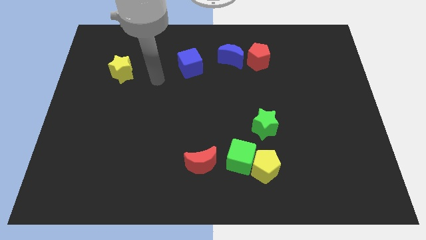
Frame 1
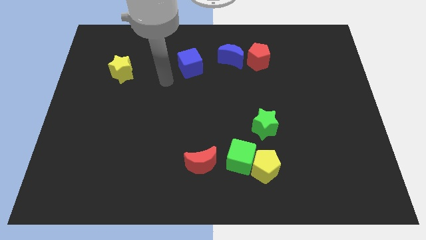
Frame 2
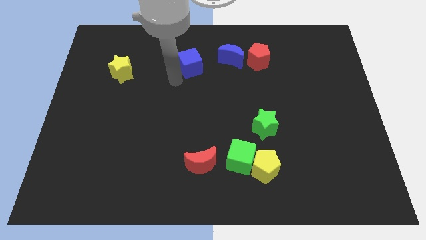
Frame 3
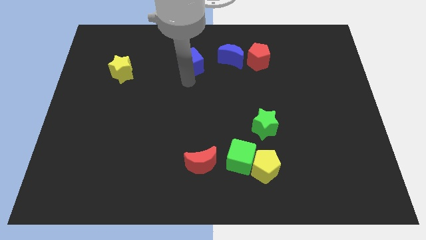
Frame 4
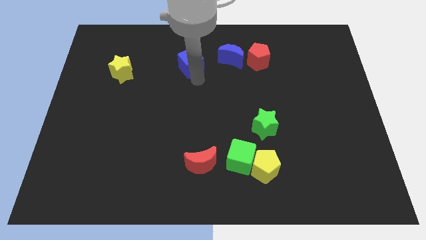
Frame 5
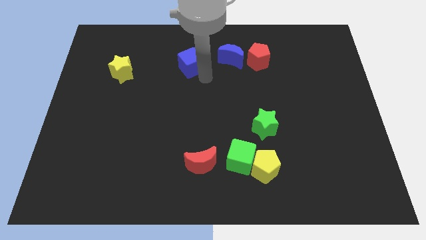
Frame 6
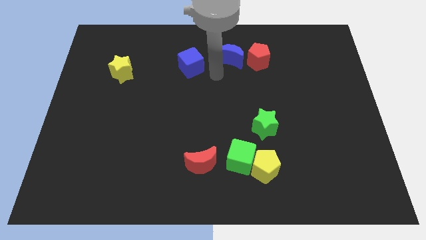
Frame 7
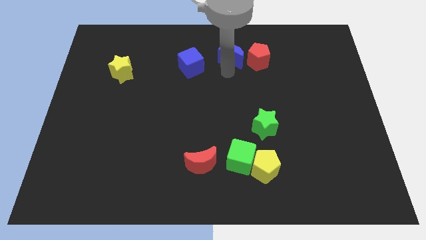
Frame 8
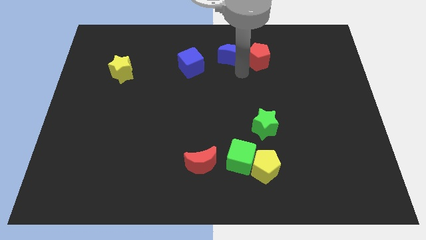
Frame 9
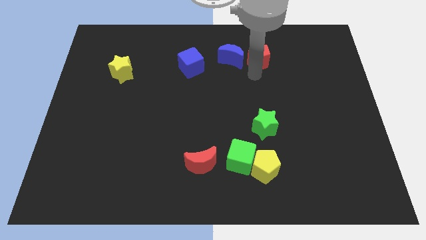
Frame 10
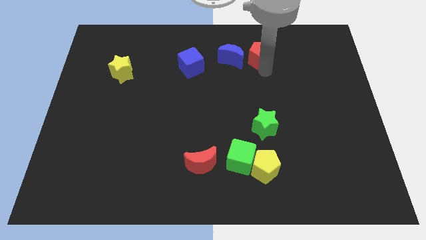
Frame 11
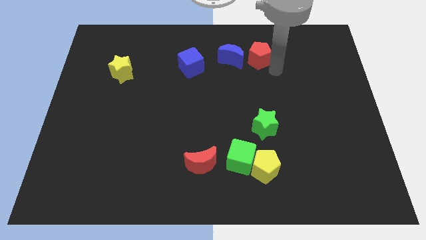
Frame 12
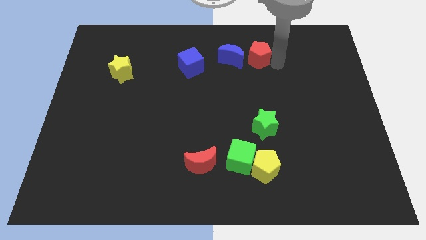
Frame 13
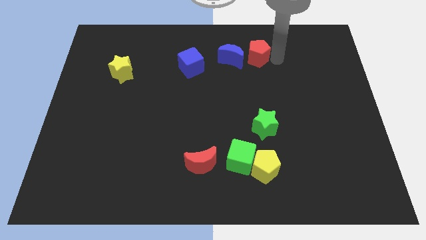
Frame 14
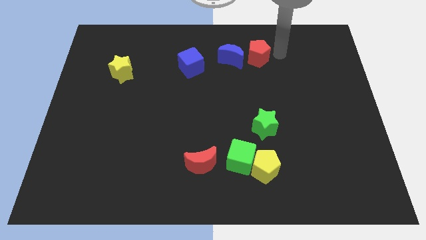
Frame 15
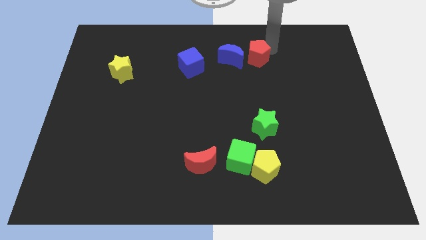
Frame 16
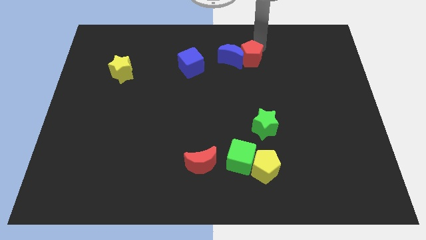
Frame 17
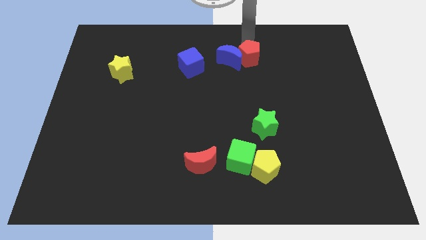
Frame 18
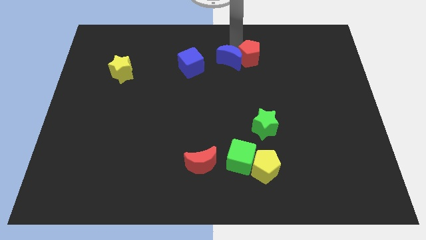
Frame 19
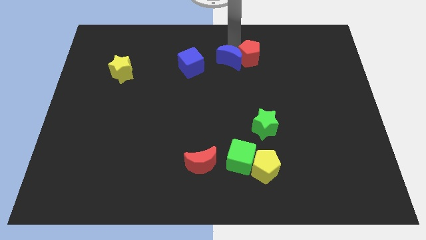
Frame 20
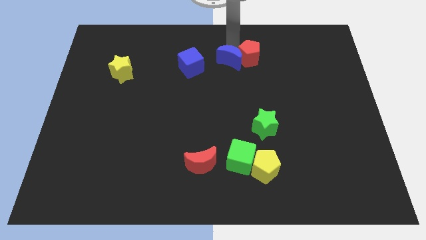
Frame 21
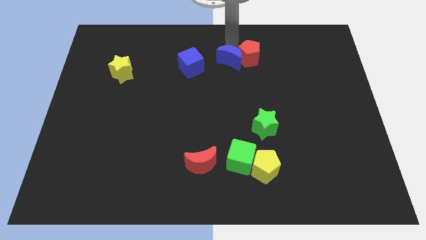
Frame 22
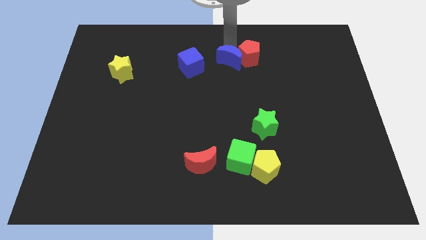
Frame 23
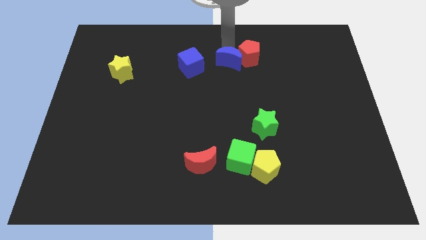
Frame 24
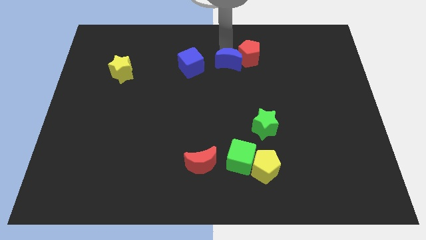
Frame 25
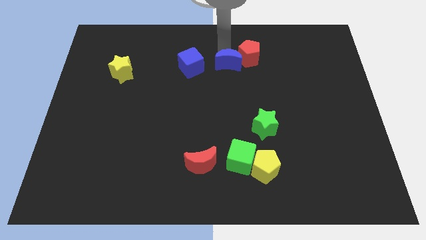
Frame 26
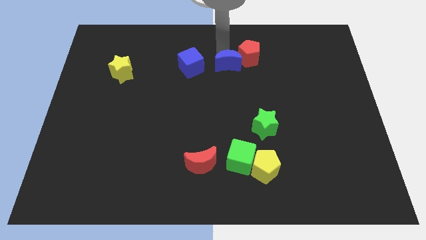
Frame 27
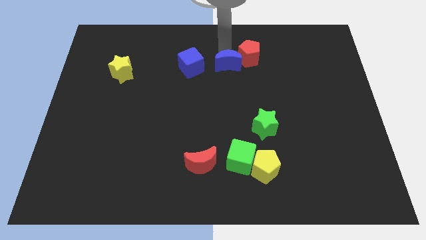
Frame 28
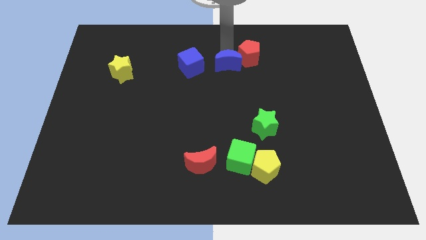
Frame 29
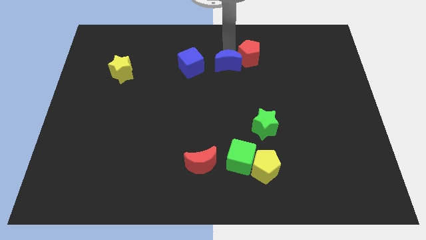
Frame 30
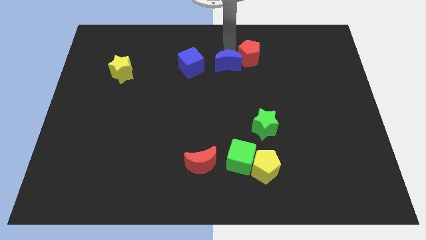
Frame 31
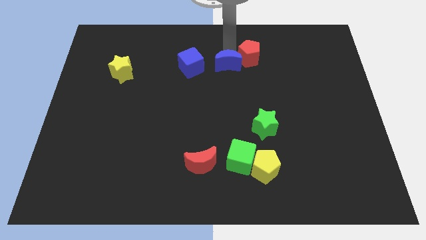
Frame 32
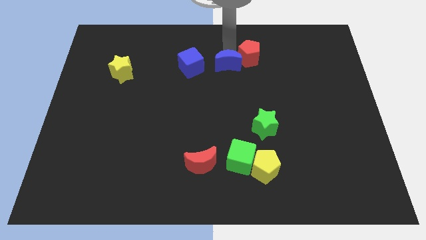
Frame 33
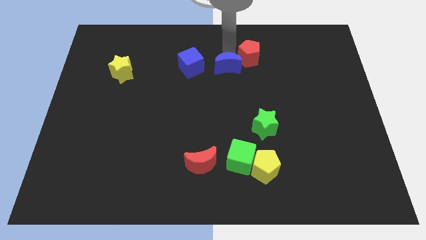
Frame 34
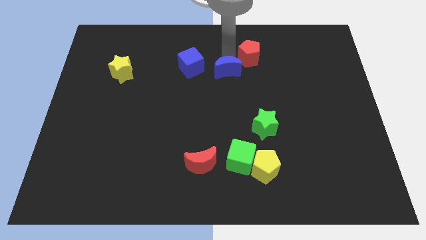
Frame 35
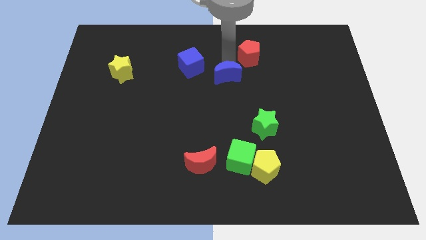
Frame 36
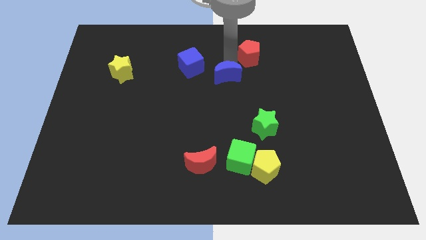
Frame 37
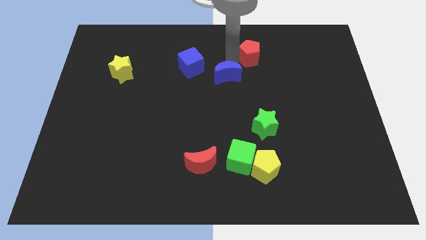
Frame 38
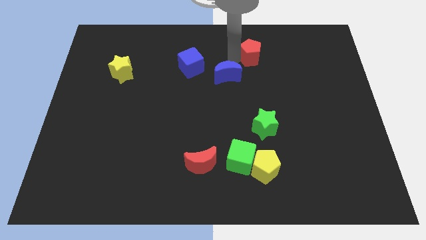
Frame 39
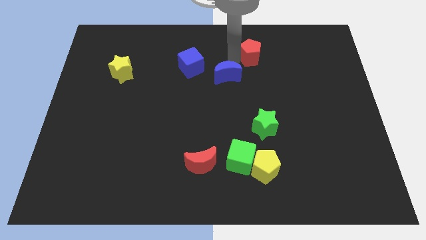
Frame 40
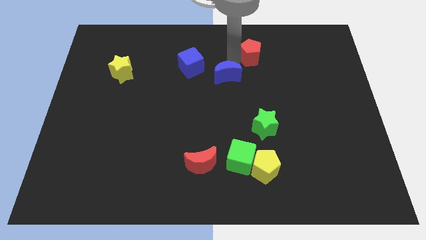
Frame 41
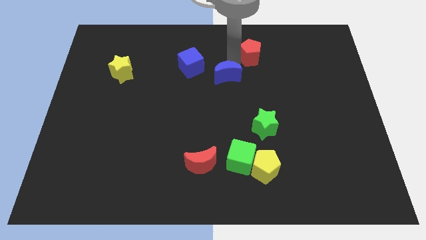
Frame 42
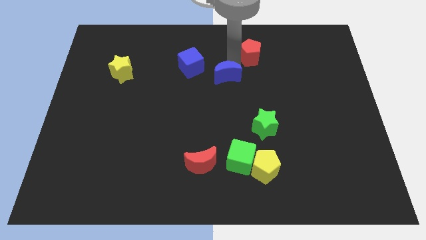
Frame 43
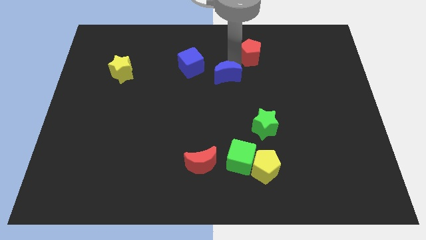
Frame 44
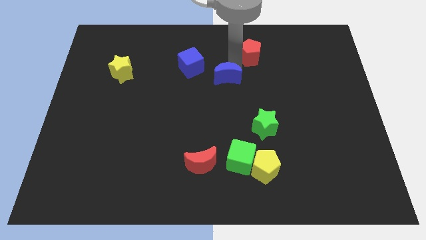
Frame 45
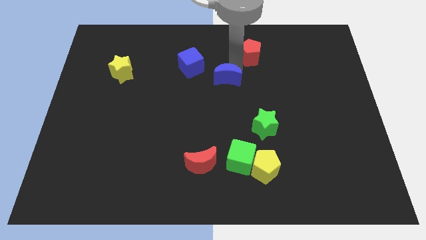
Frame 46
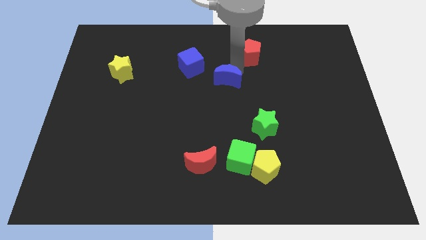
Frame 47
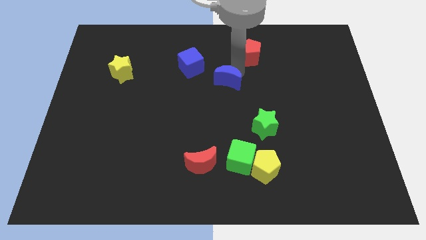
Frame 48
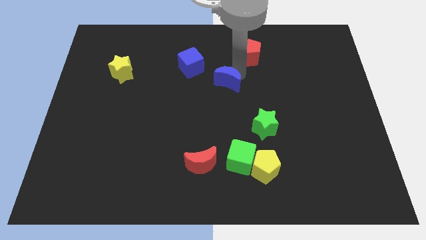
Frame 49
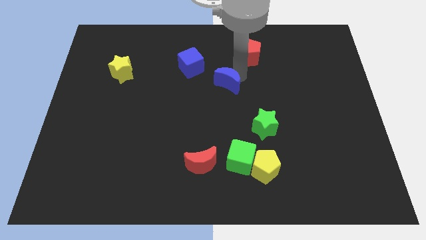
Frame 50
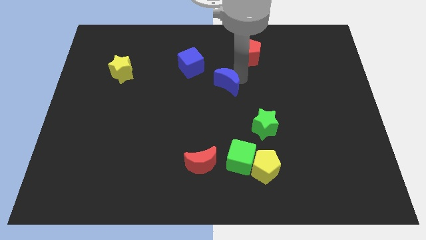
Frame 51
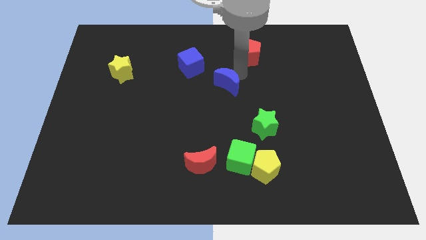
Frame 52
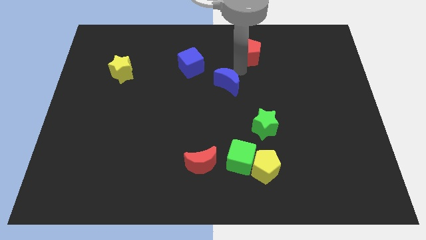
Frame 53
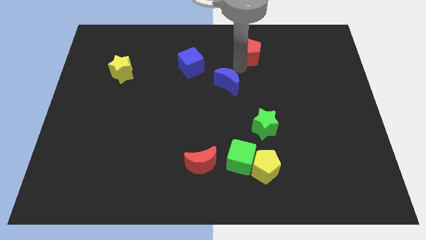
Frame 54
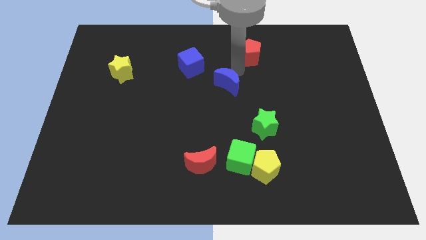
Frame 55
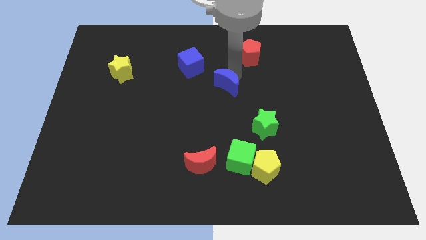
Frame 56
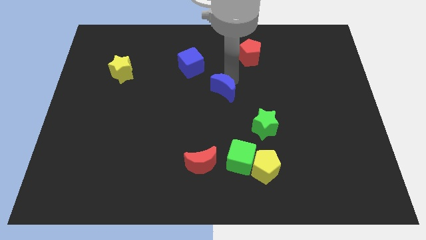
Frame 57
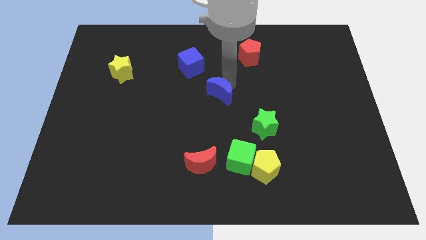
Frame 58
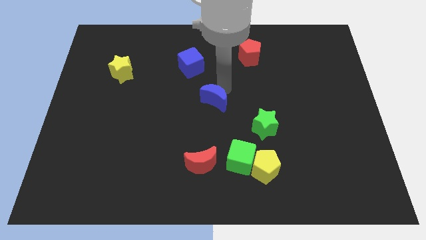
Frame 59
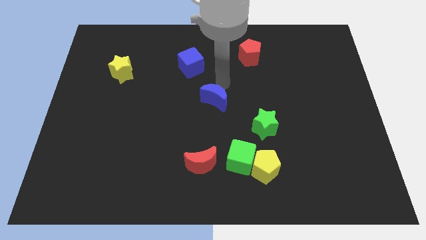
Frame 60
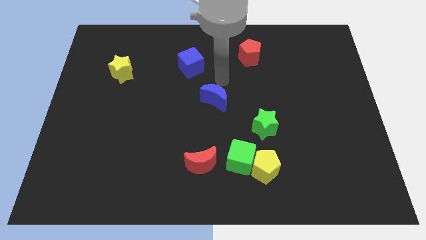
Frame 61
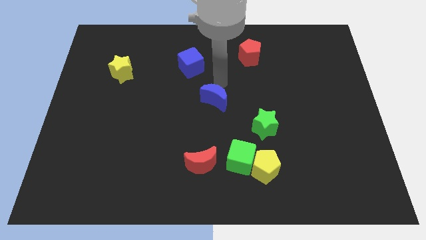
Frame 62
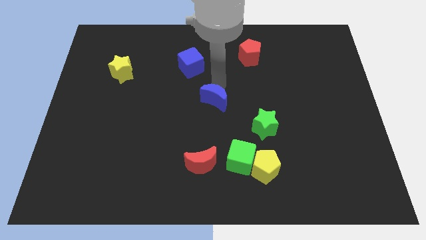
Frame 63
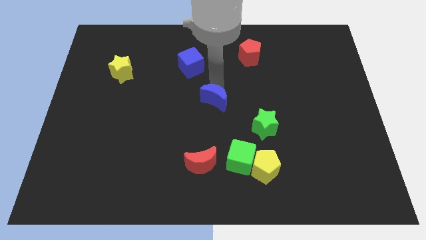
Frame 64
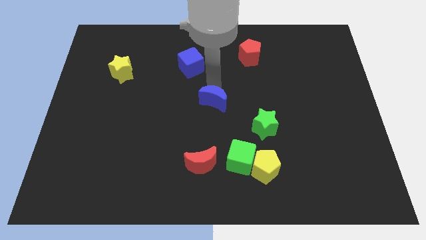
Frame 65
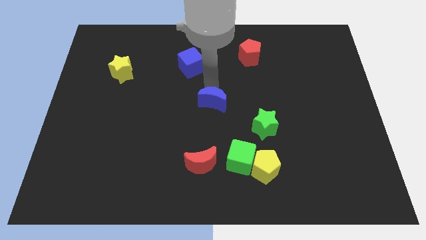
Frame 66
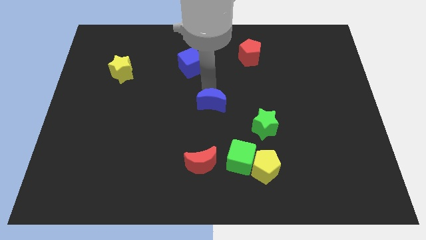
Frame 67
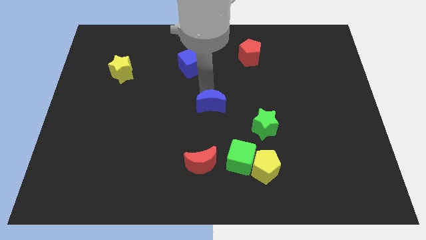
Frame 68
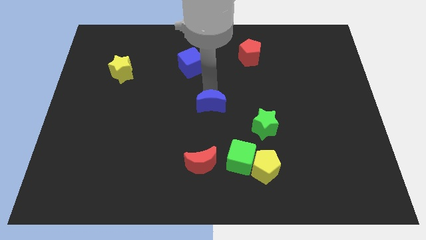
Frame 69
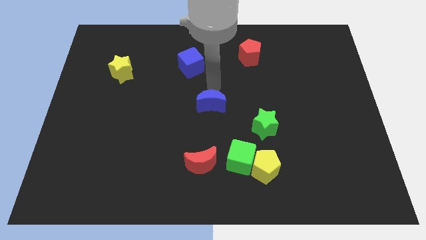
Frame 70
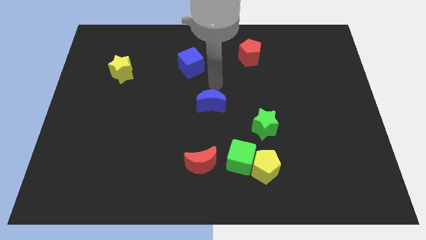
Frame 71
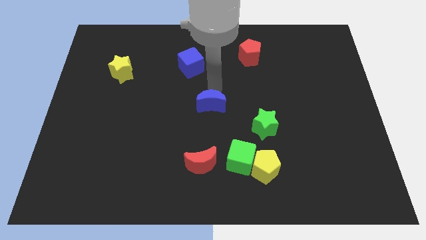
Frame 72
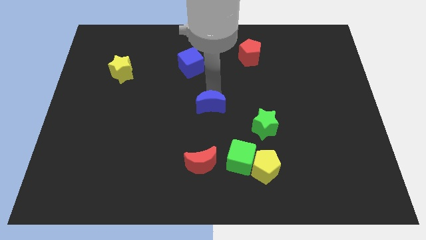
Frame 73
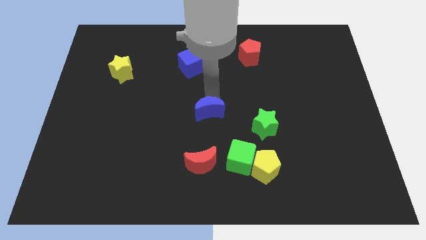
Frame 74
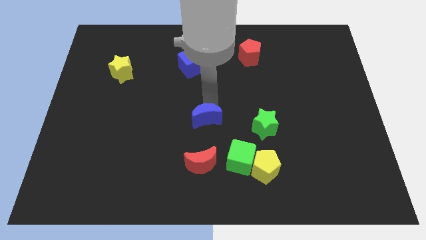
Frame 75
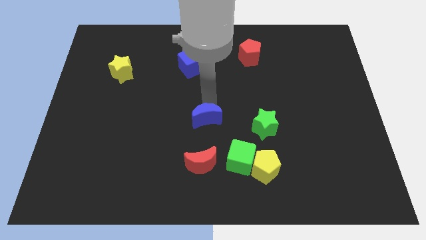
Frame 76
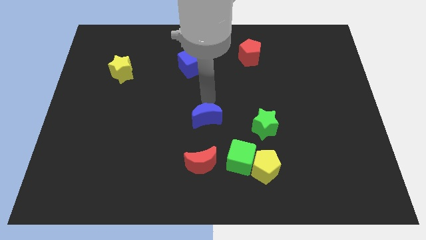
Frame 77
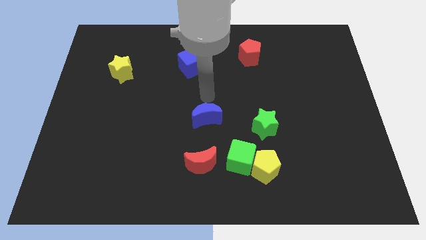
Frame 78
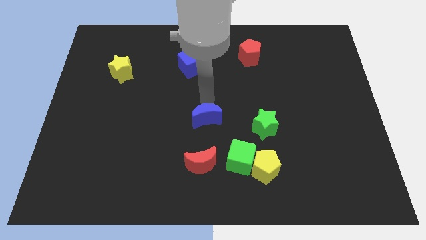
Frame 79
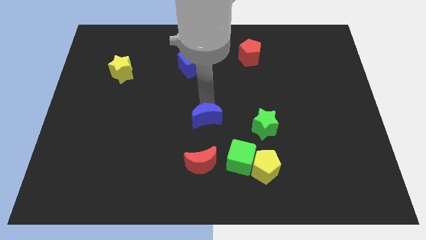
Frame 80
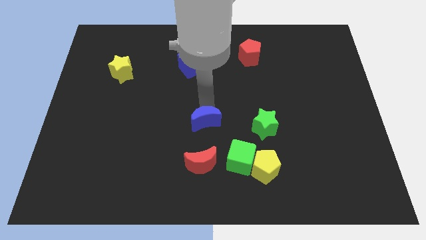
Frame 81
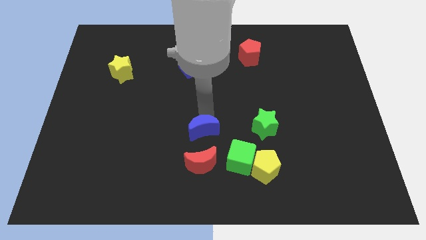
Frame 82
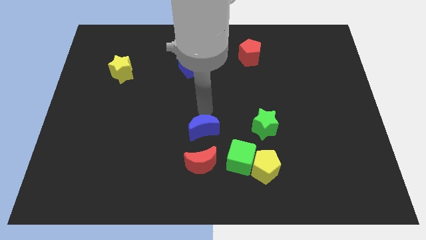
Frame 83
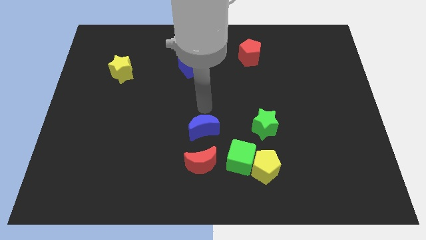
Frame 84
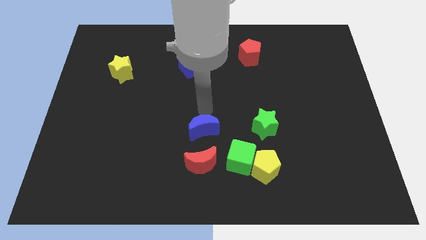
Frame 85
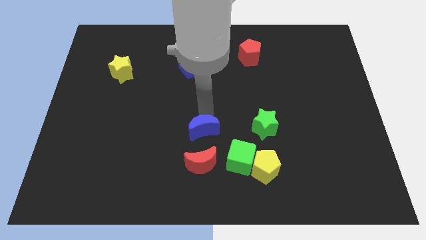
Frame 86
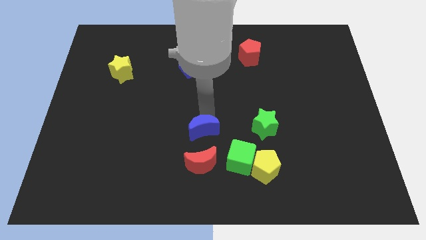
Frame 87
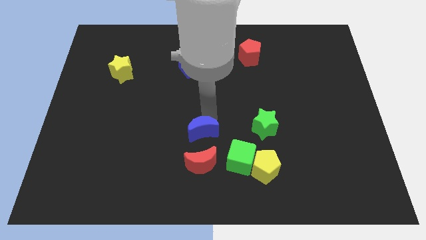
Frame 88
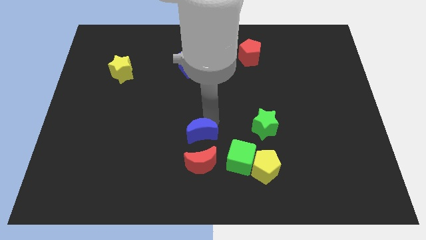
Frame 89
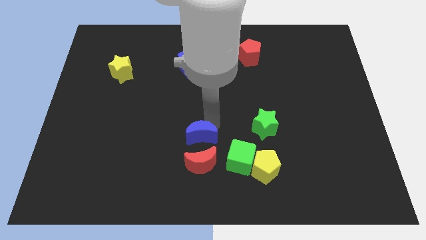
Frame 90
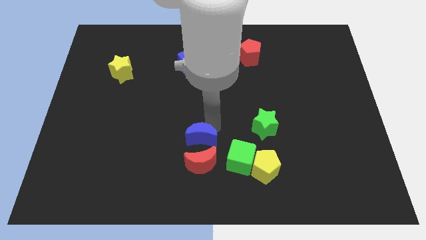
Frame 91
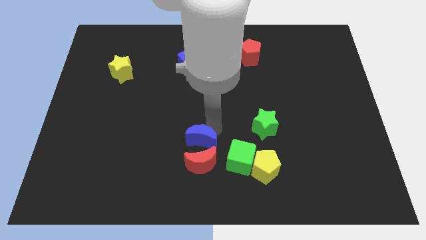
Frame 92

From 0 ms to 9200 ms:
move the blue moon close to the red moon
